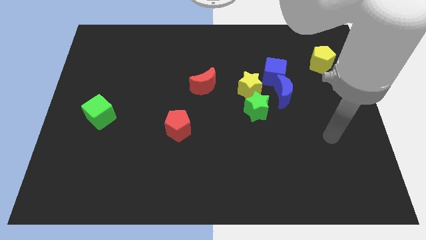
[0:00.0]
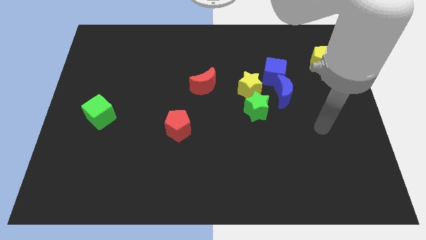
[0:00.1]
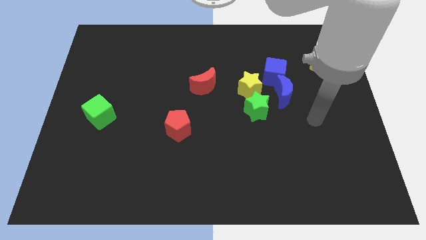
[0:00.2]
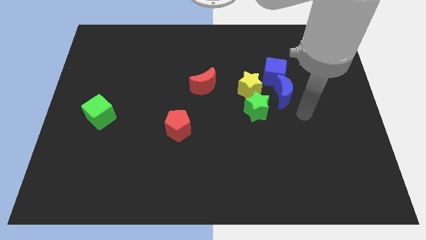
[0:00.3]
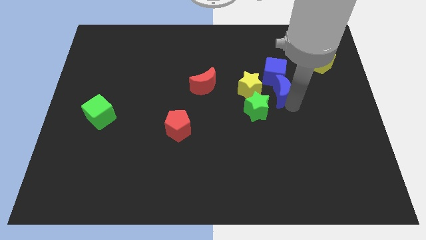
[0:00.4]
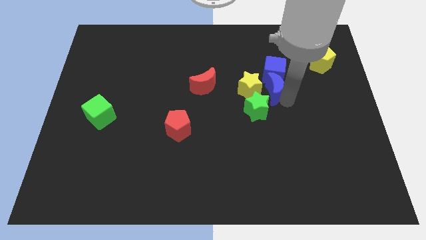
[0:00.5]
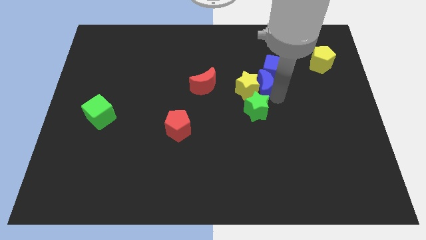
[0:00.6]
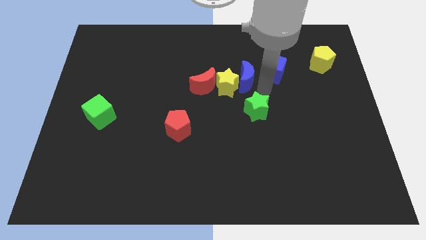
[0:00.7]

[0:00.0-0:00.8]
separate the blue cube from the blue moon and yellow star

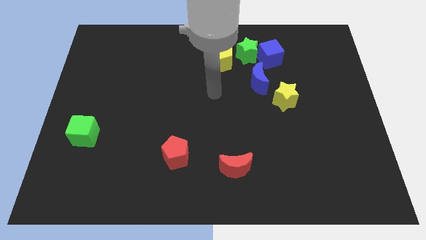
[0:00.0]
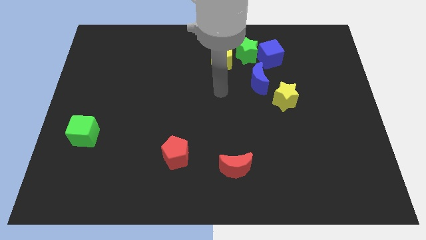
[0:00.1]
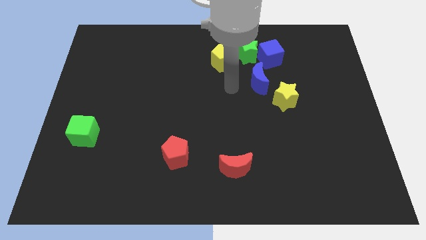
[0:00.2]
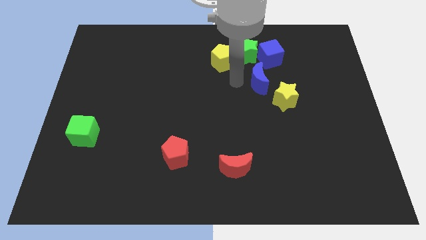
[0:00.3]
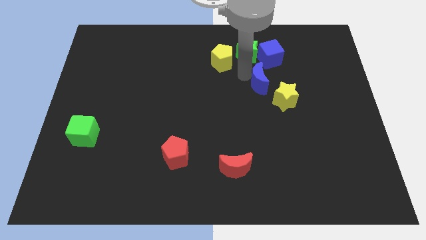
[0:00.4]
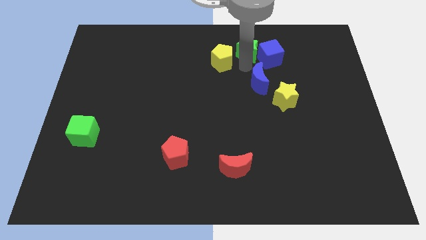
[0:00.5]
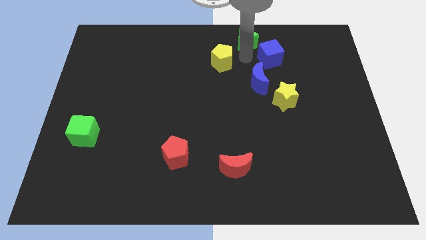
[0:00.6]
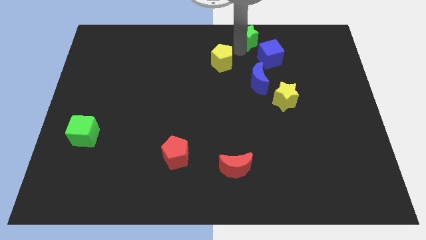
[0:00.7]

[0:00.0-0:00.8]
separate the yellow pentagon from the green star

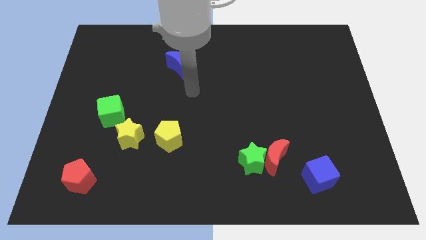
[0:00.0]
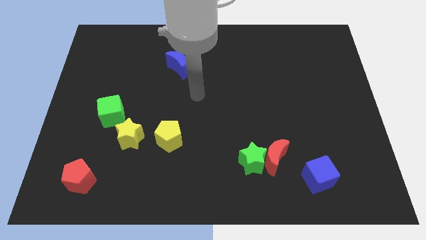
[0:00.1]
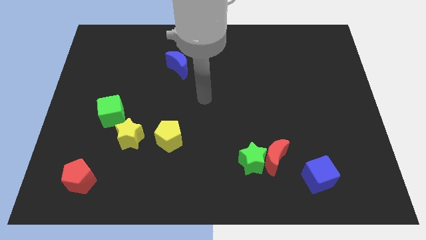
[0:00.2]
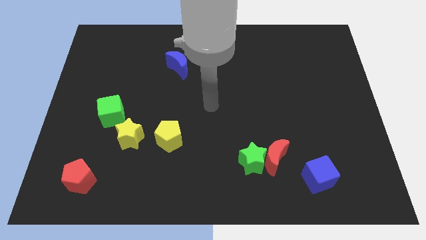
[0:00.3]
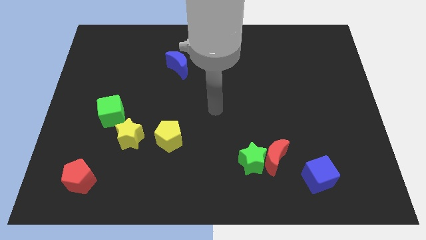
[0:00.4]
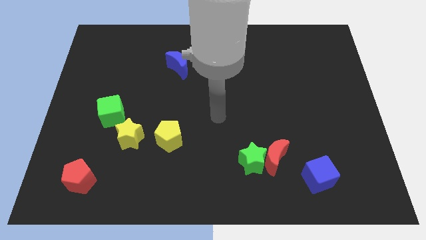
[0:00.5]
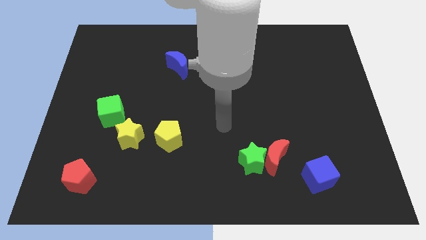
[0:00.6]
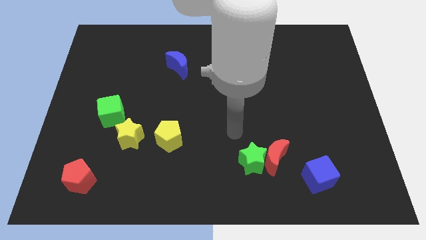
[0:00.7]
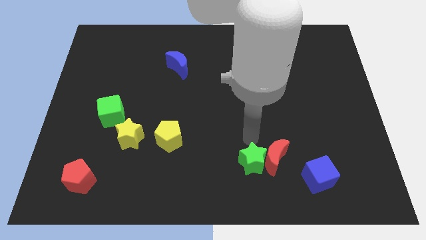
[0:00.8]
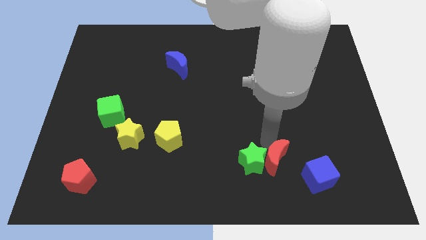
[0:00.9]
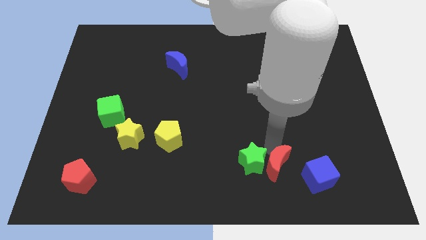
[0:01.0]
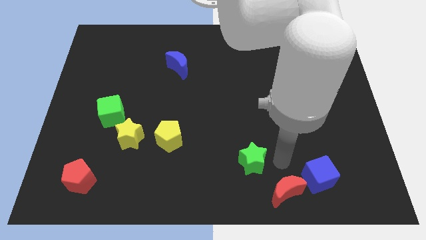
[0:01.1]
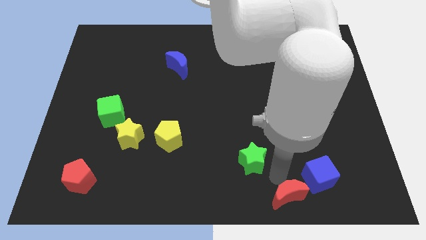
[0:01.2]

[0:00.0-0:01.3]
pull the green star apart from the red moon

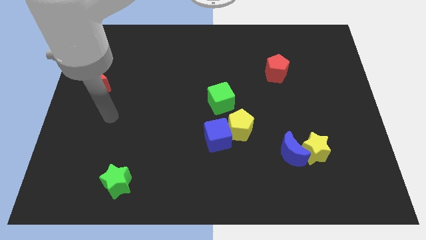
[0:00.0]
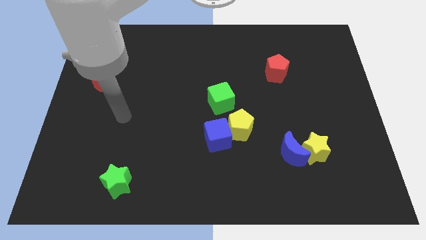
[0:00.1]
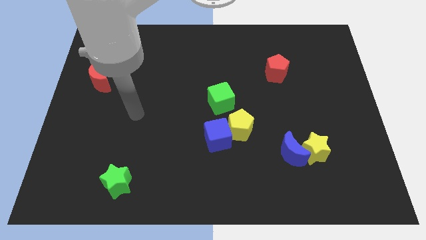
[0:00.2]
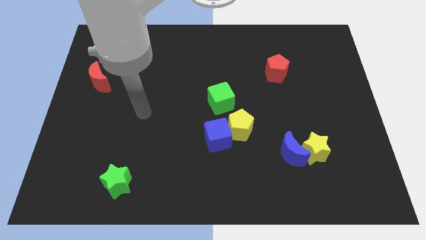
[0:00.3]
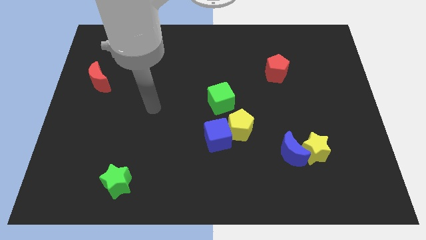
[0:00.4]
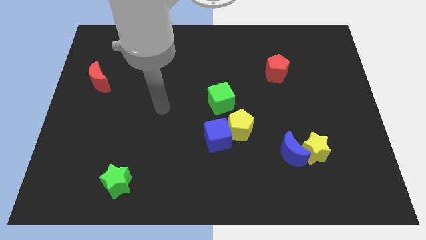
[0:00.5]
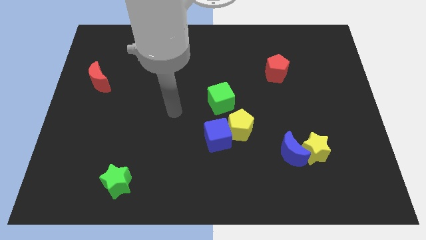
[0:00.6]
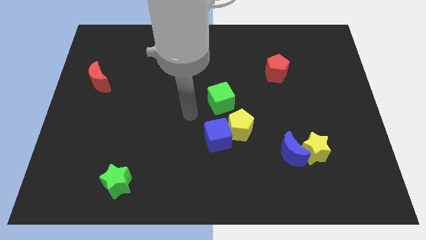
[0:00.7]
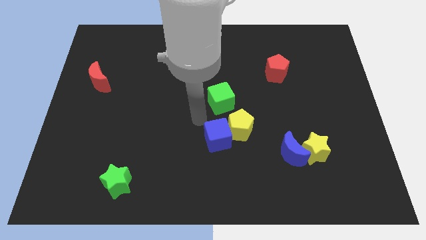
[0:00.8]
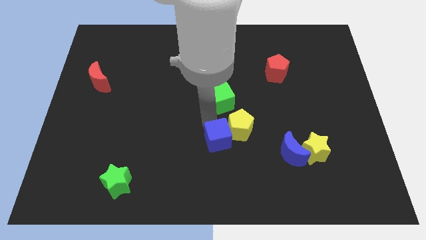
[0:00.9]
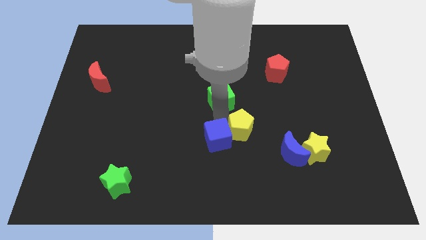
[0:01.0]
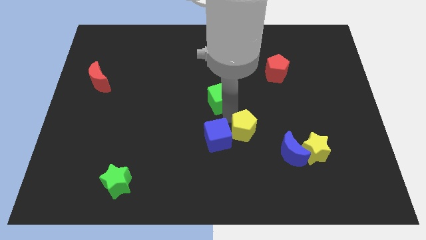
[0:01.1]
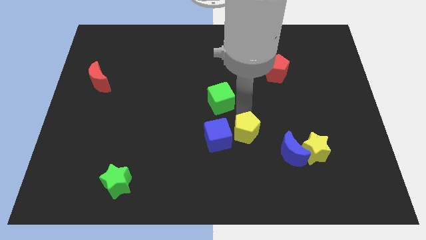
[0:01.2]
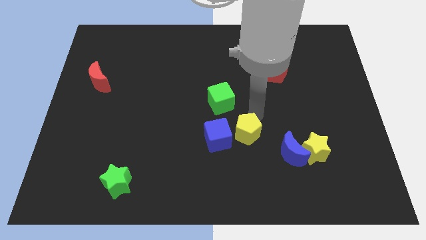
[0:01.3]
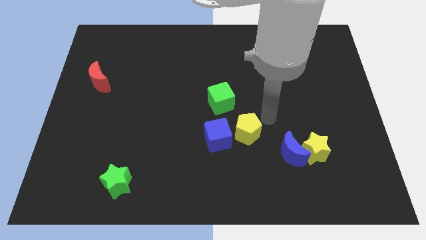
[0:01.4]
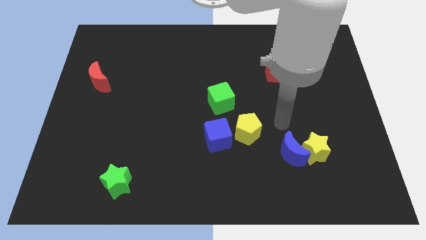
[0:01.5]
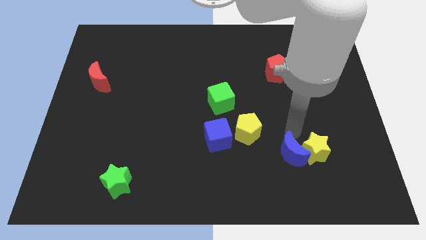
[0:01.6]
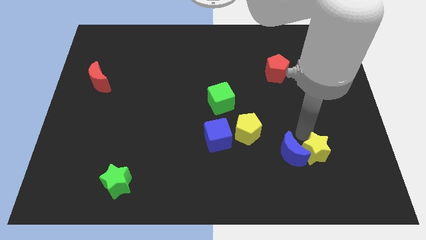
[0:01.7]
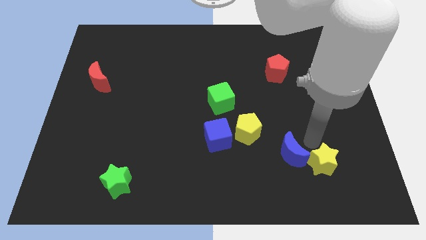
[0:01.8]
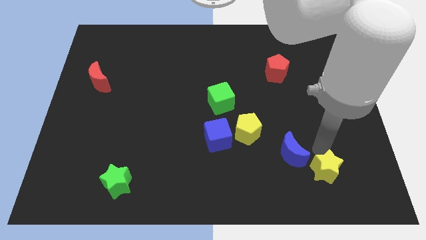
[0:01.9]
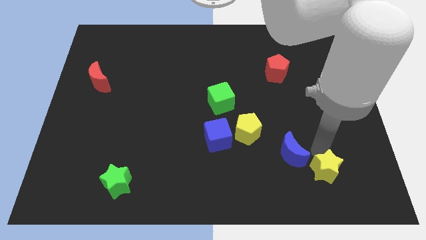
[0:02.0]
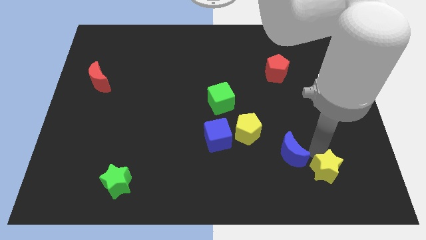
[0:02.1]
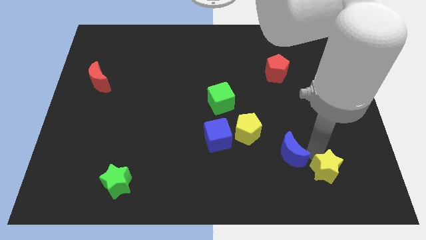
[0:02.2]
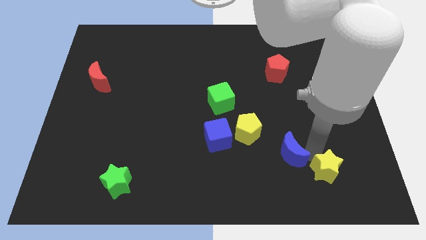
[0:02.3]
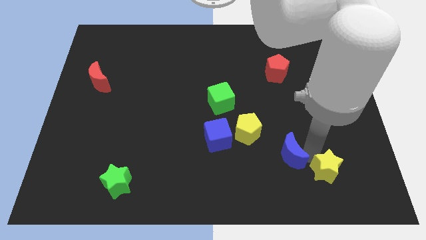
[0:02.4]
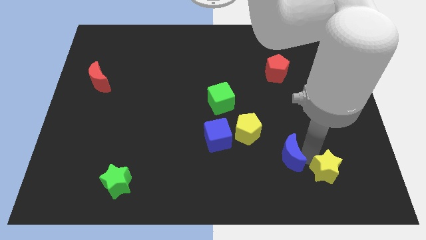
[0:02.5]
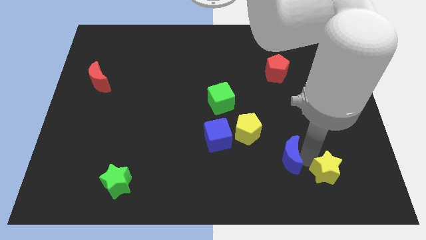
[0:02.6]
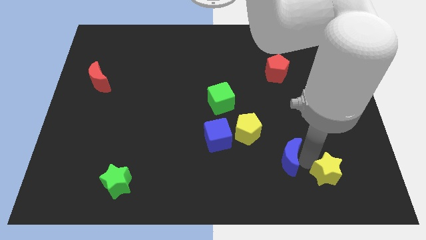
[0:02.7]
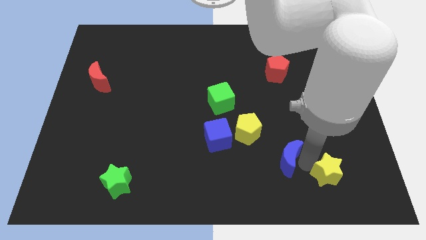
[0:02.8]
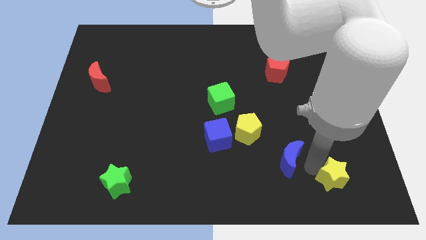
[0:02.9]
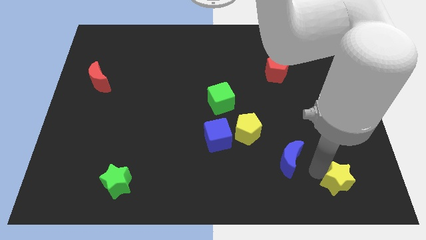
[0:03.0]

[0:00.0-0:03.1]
move the blue moon away from the yellow star

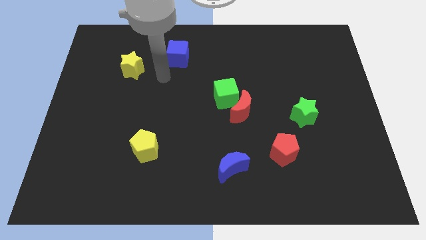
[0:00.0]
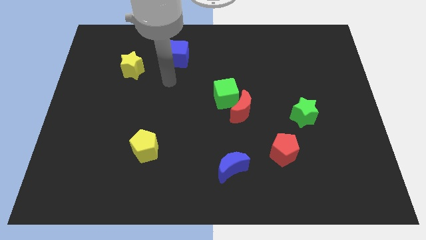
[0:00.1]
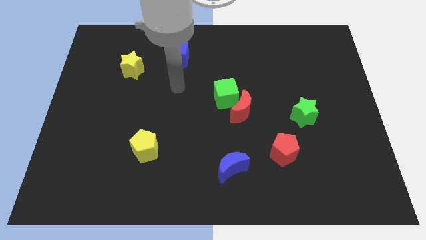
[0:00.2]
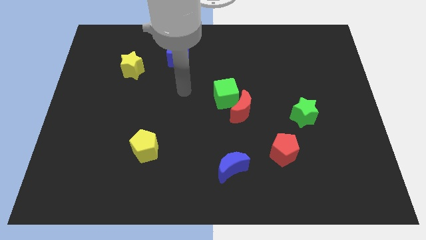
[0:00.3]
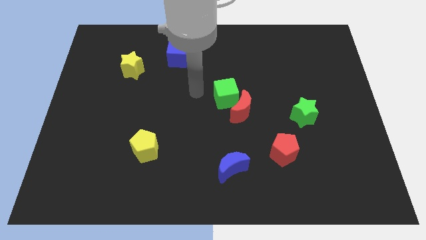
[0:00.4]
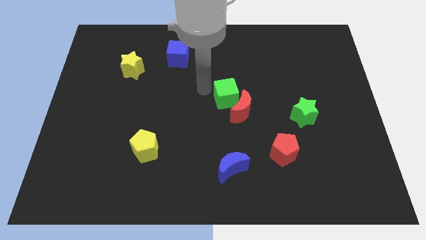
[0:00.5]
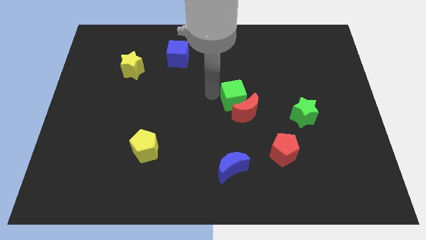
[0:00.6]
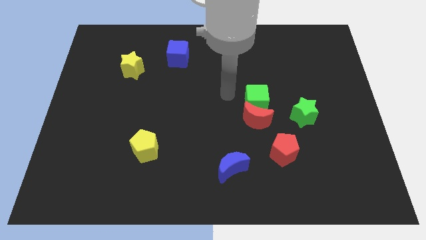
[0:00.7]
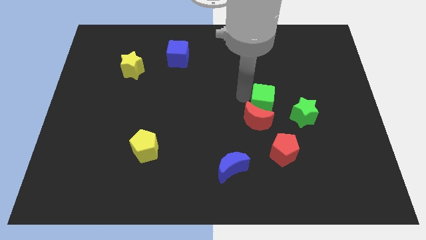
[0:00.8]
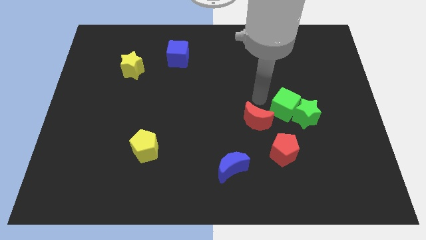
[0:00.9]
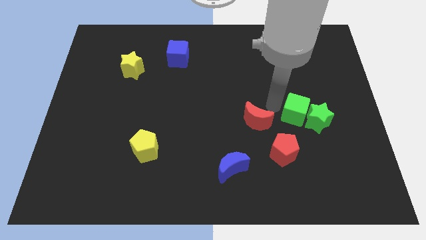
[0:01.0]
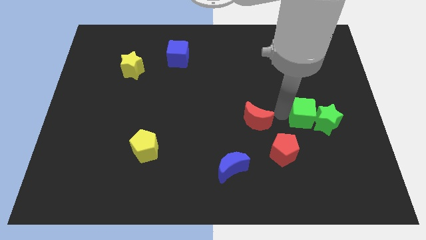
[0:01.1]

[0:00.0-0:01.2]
separate the red moon from the green cube

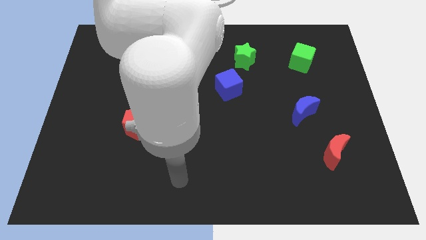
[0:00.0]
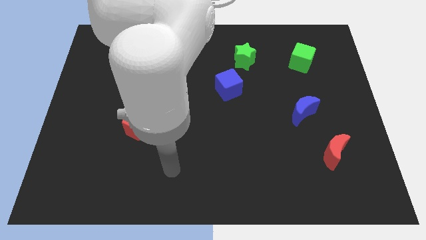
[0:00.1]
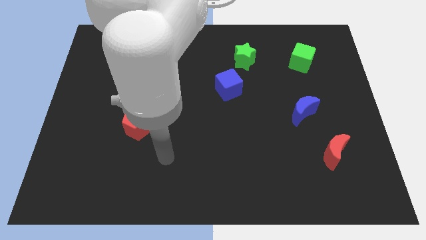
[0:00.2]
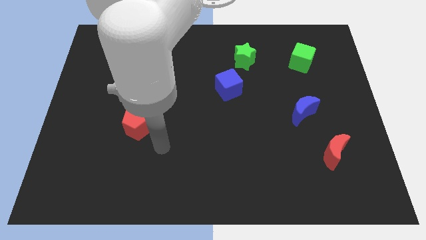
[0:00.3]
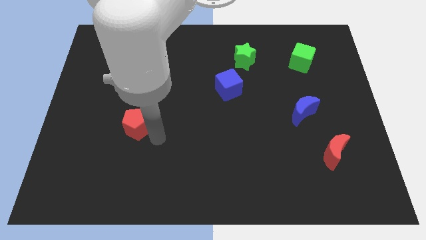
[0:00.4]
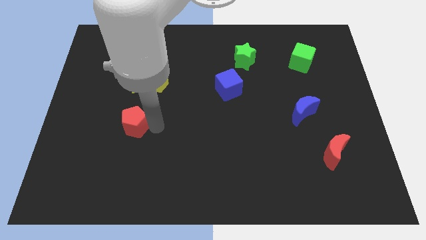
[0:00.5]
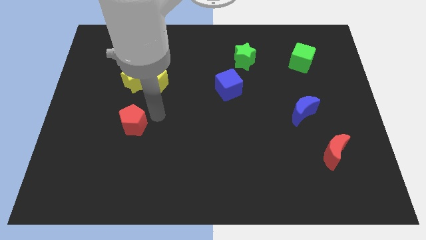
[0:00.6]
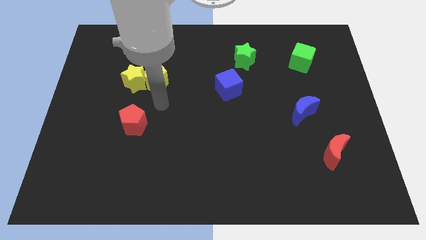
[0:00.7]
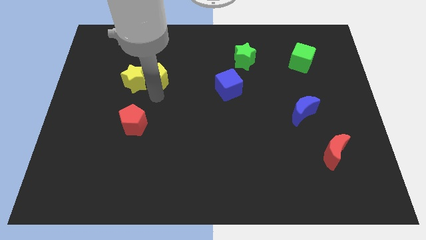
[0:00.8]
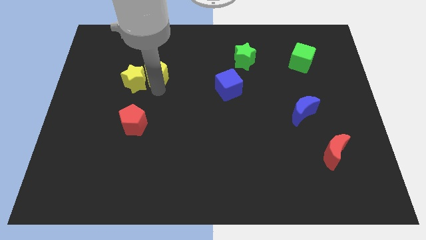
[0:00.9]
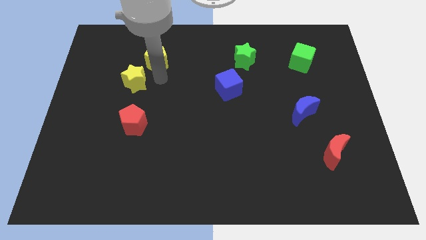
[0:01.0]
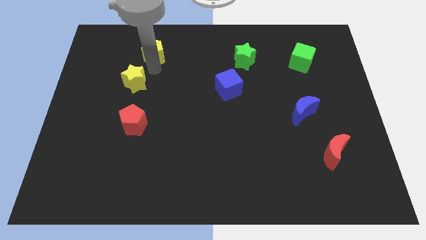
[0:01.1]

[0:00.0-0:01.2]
pull the yellow star apart from the yellow pentagon

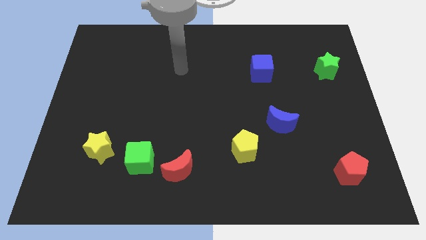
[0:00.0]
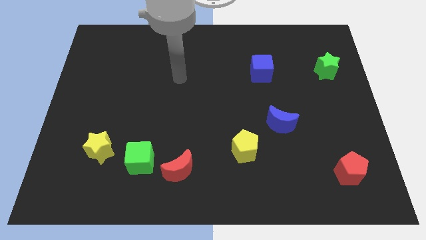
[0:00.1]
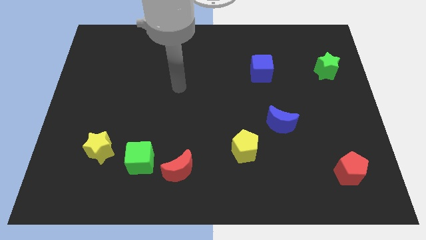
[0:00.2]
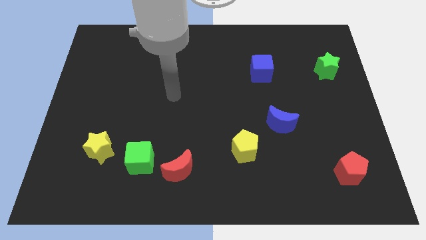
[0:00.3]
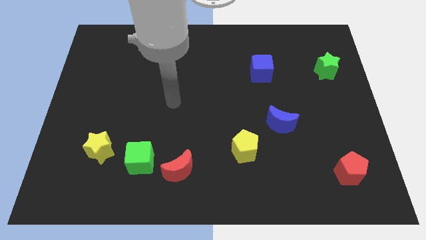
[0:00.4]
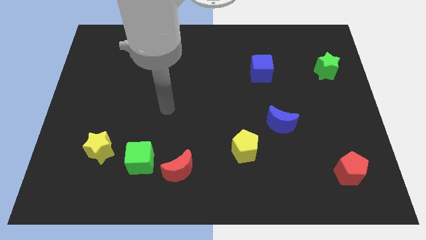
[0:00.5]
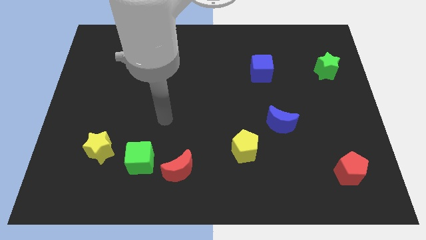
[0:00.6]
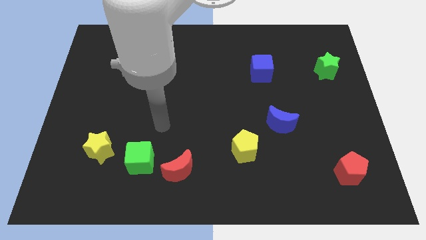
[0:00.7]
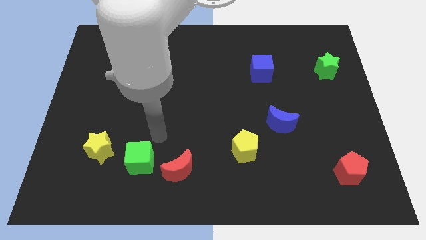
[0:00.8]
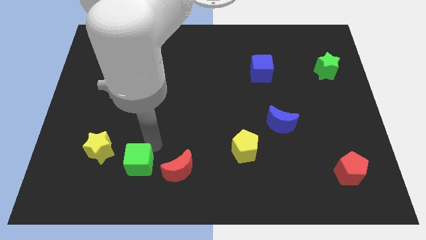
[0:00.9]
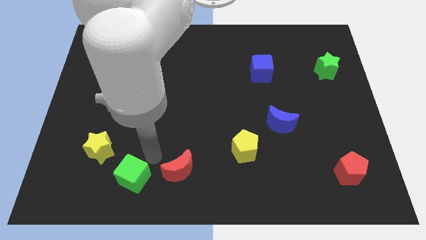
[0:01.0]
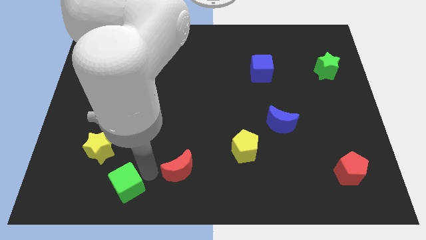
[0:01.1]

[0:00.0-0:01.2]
pull the red moon apart from the green cube
